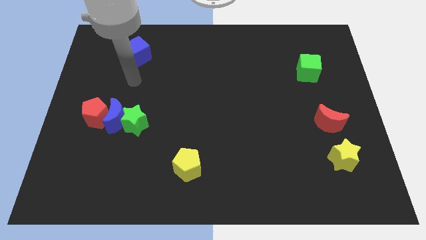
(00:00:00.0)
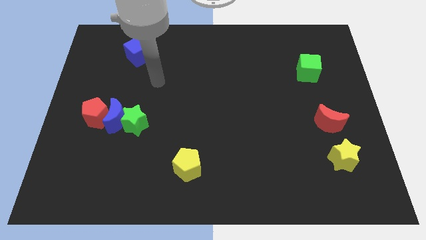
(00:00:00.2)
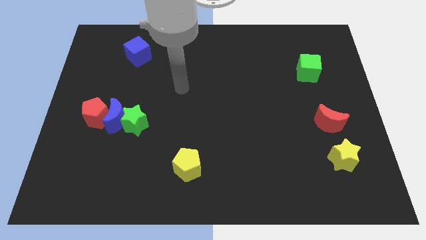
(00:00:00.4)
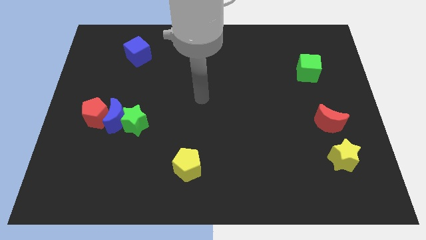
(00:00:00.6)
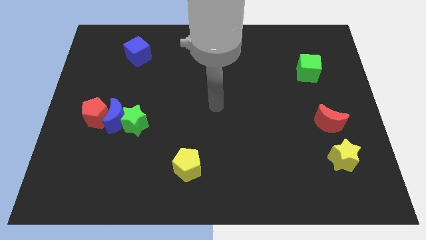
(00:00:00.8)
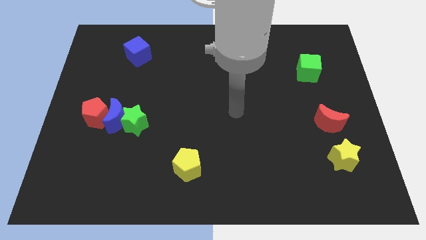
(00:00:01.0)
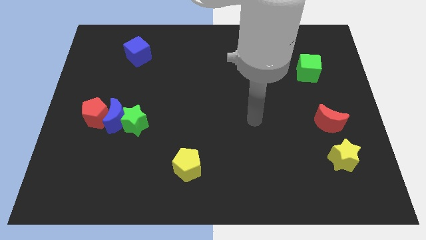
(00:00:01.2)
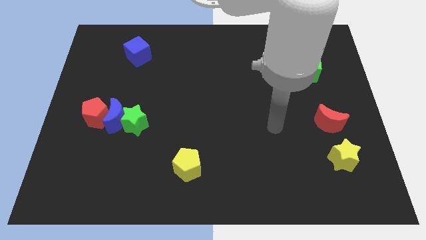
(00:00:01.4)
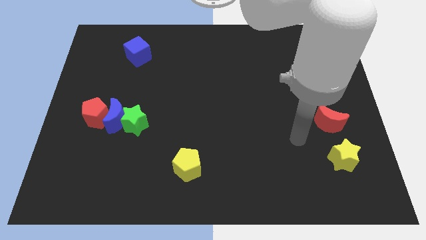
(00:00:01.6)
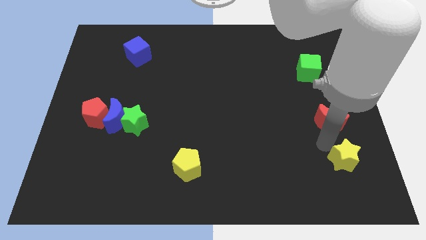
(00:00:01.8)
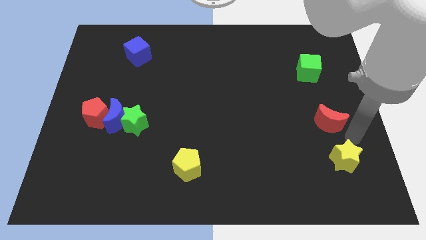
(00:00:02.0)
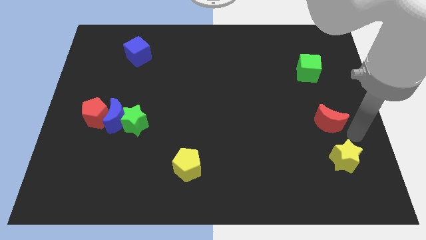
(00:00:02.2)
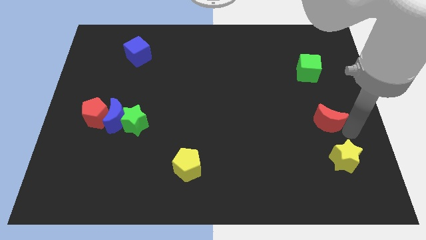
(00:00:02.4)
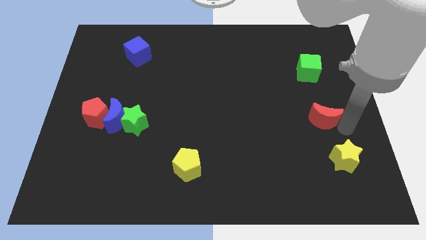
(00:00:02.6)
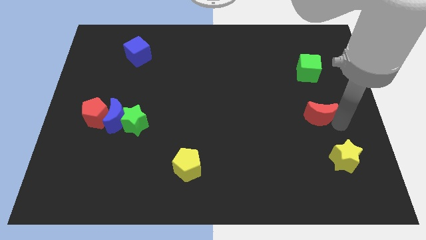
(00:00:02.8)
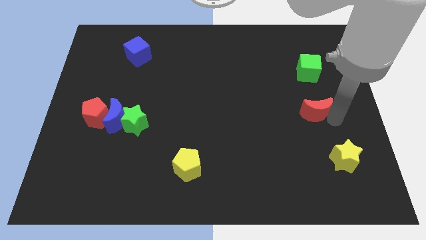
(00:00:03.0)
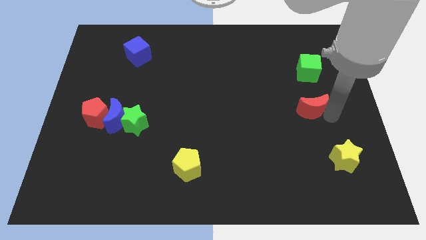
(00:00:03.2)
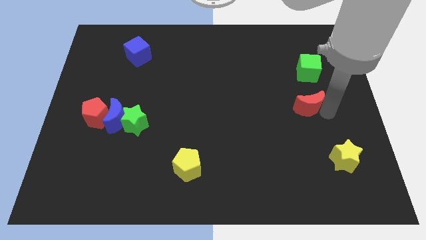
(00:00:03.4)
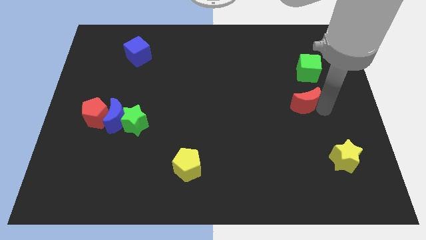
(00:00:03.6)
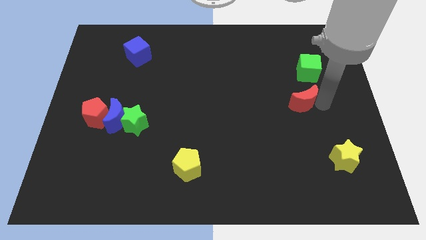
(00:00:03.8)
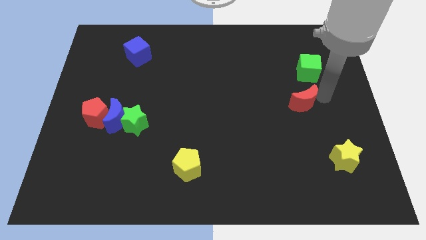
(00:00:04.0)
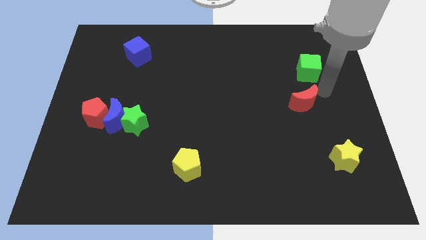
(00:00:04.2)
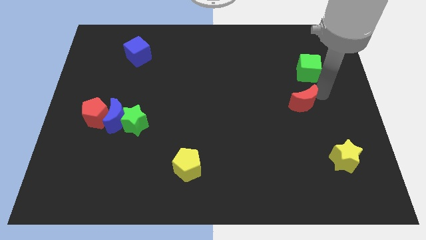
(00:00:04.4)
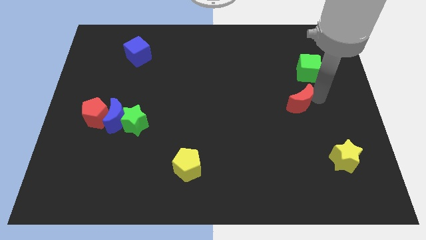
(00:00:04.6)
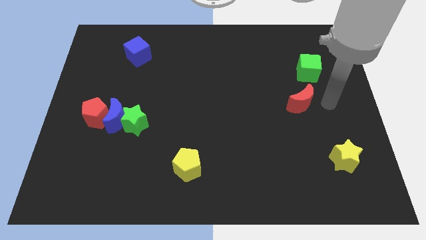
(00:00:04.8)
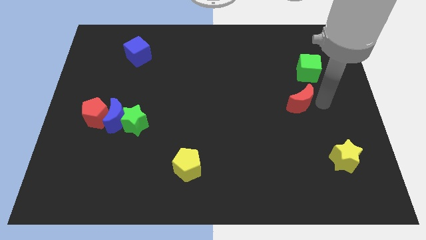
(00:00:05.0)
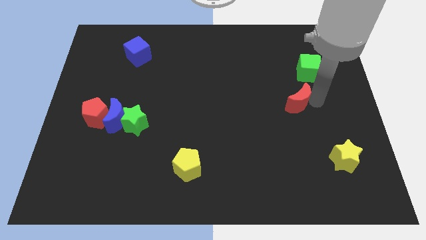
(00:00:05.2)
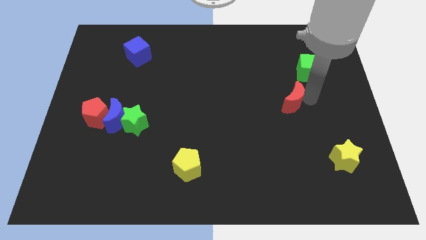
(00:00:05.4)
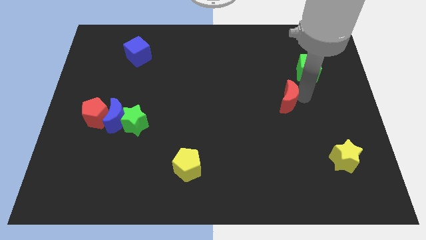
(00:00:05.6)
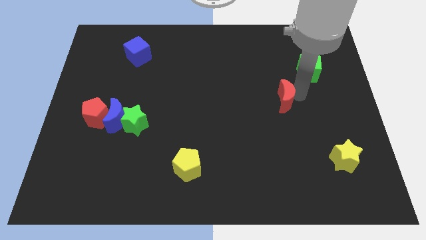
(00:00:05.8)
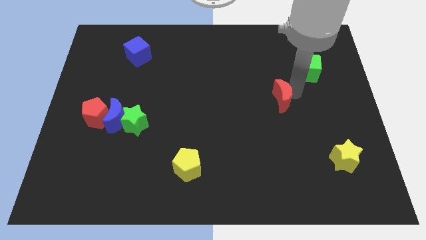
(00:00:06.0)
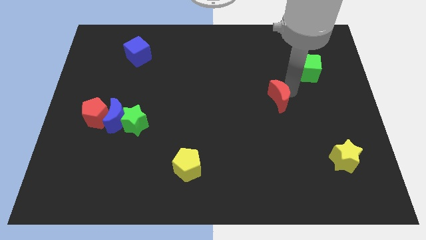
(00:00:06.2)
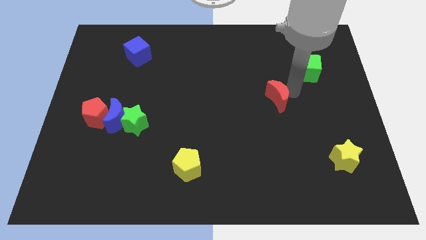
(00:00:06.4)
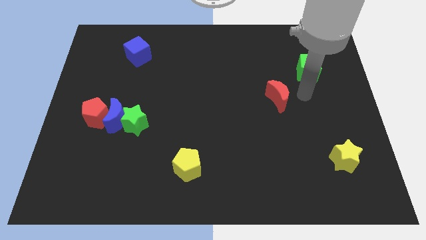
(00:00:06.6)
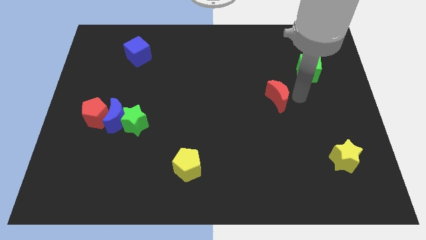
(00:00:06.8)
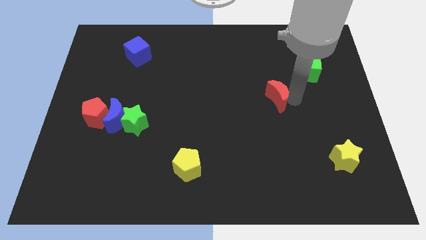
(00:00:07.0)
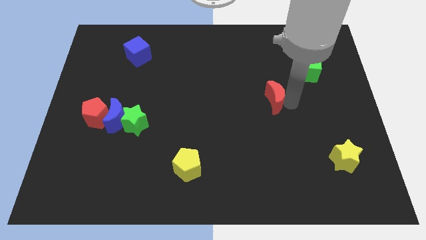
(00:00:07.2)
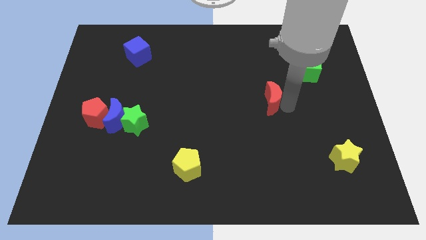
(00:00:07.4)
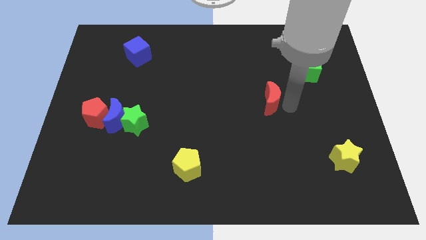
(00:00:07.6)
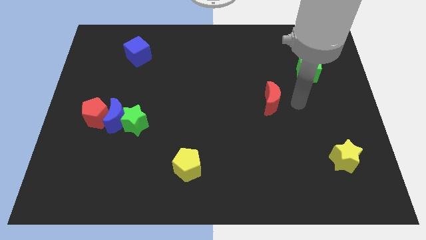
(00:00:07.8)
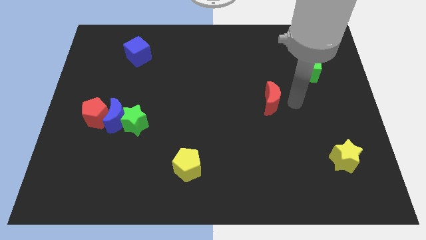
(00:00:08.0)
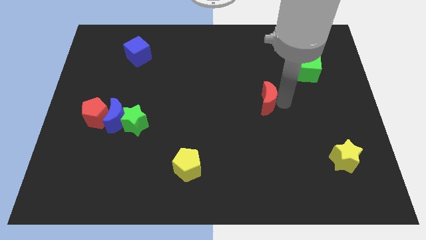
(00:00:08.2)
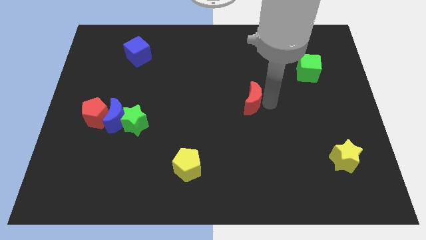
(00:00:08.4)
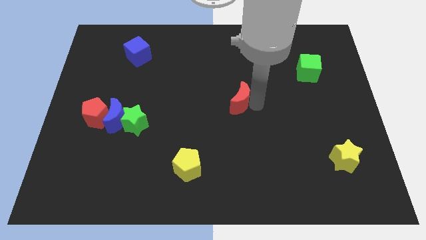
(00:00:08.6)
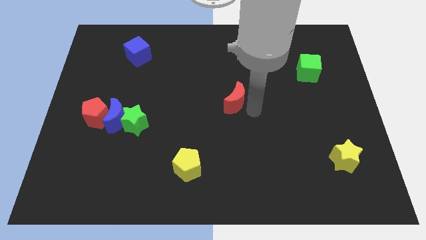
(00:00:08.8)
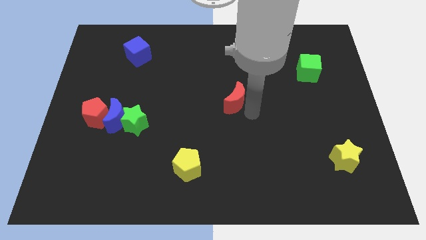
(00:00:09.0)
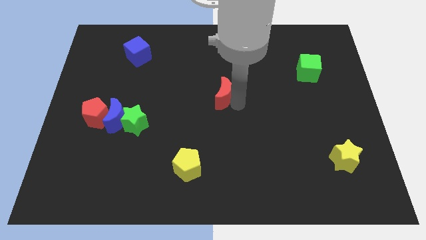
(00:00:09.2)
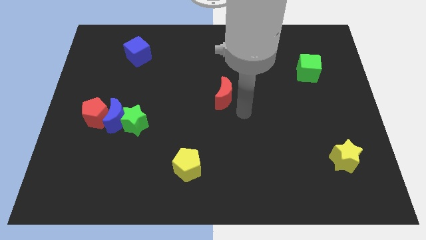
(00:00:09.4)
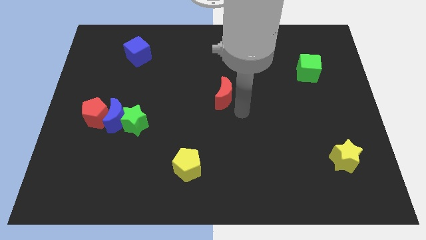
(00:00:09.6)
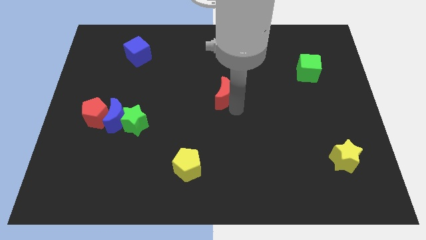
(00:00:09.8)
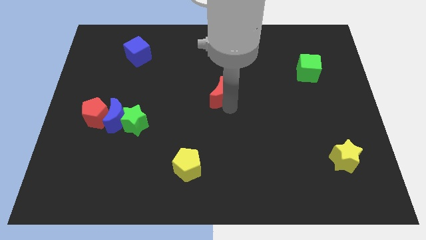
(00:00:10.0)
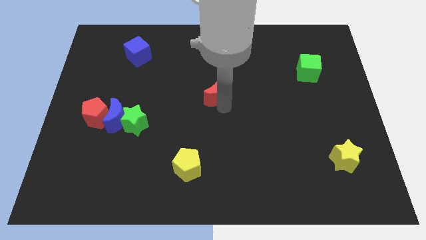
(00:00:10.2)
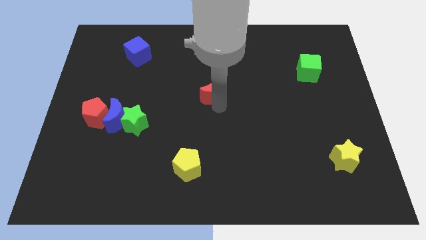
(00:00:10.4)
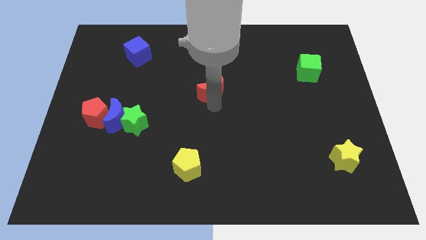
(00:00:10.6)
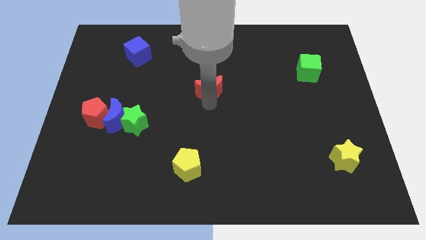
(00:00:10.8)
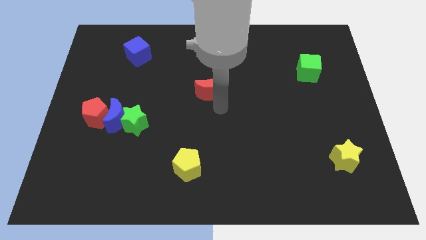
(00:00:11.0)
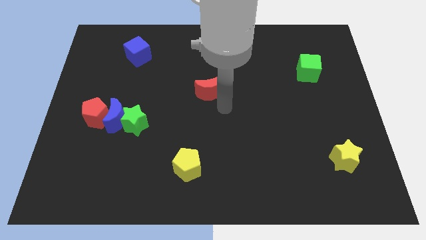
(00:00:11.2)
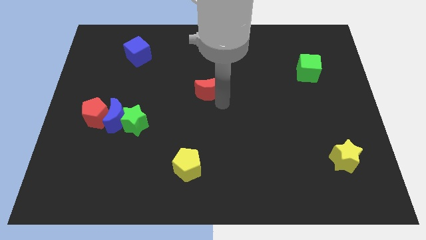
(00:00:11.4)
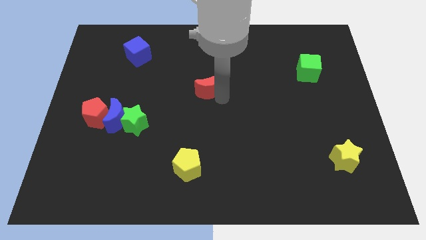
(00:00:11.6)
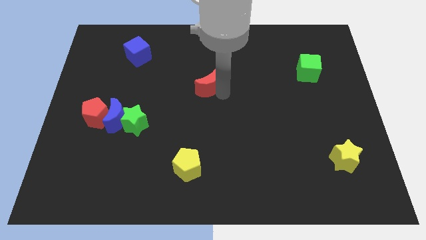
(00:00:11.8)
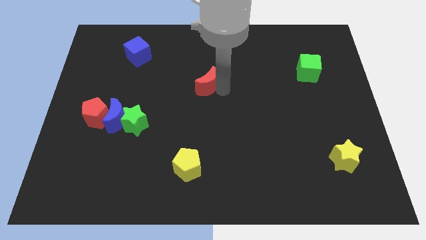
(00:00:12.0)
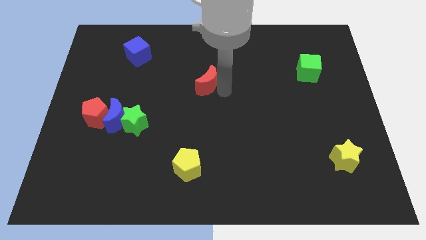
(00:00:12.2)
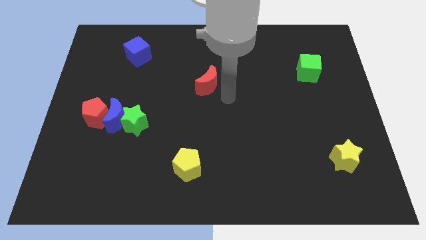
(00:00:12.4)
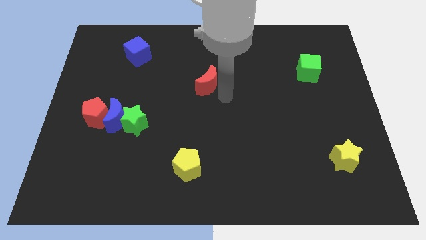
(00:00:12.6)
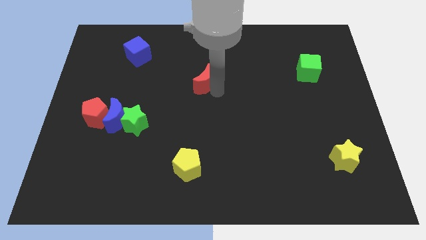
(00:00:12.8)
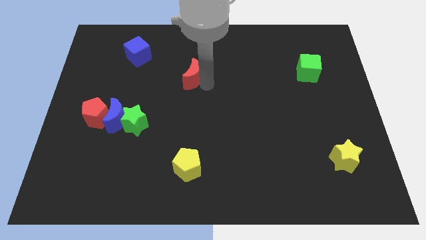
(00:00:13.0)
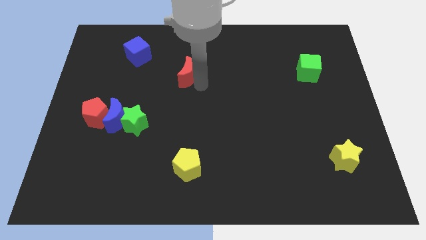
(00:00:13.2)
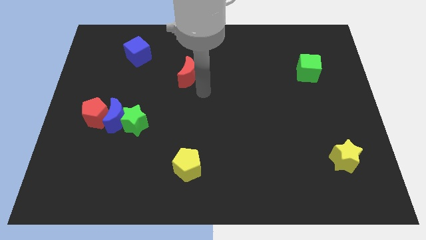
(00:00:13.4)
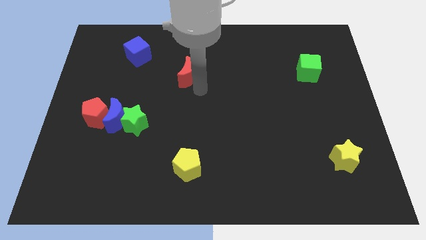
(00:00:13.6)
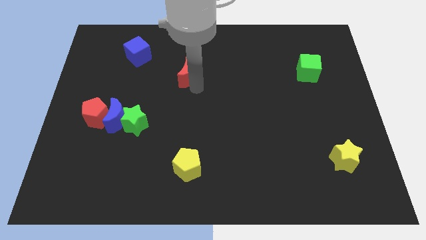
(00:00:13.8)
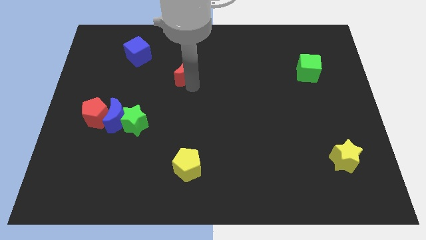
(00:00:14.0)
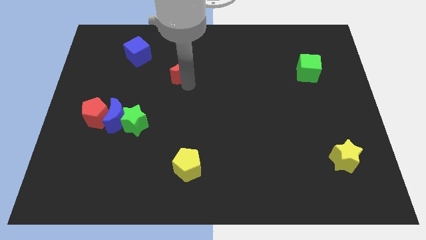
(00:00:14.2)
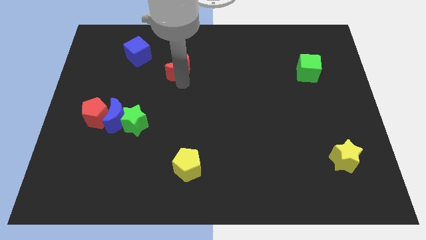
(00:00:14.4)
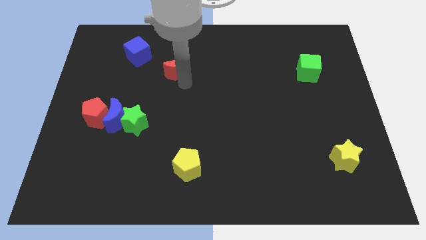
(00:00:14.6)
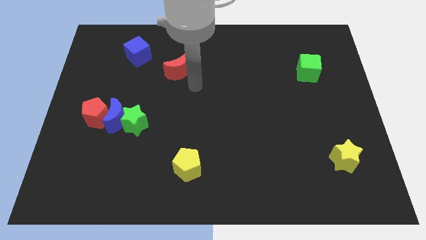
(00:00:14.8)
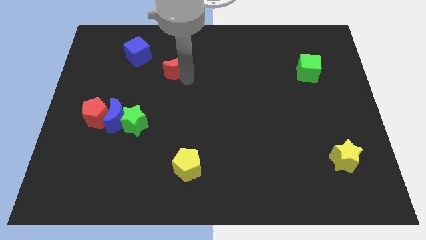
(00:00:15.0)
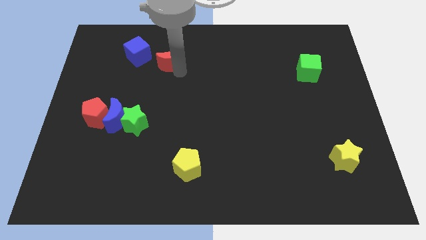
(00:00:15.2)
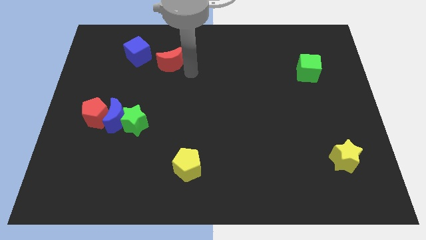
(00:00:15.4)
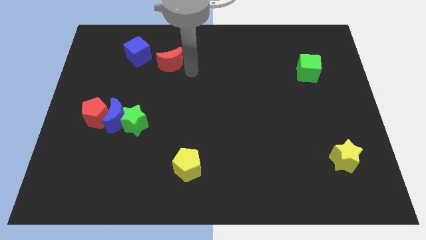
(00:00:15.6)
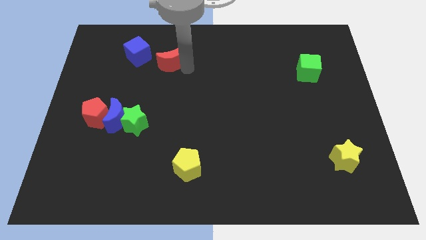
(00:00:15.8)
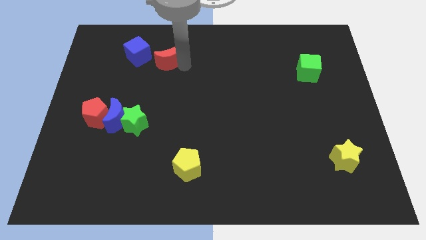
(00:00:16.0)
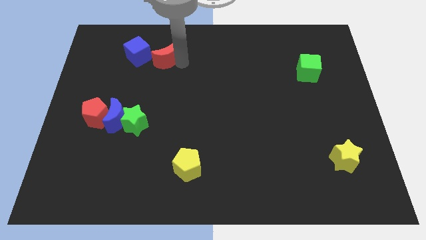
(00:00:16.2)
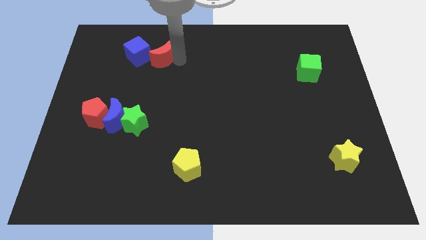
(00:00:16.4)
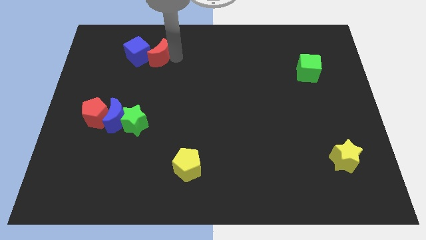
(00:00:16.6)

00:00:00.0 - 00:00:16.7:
move the red moon to the blue cube
